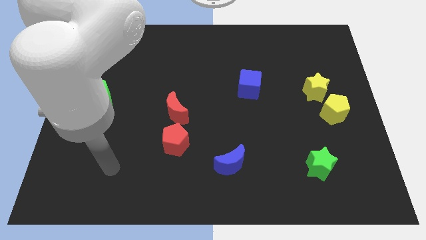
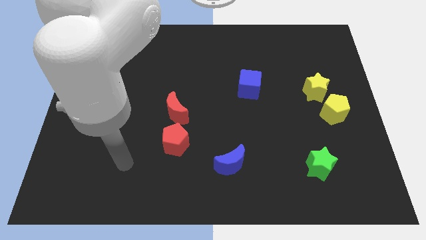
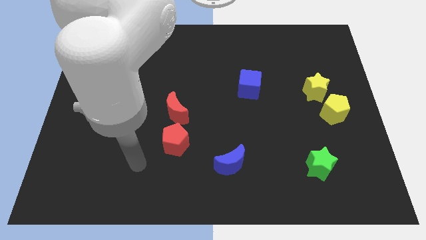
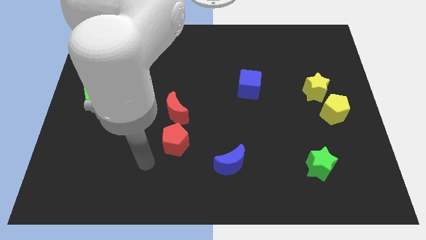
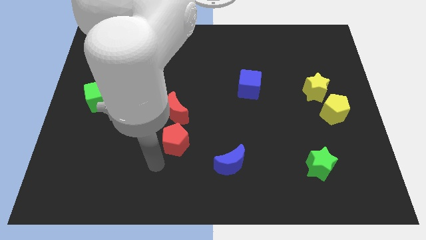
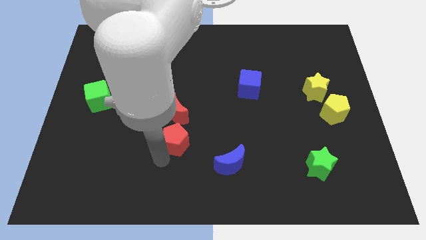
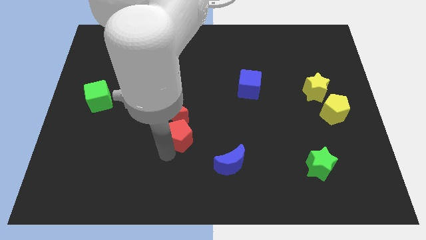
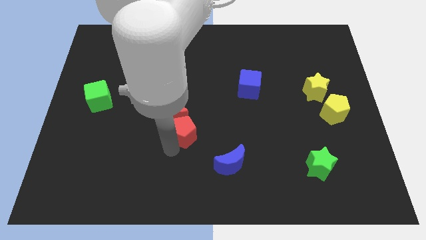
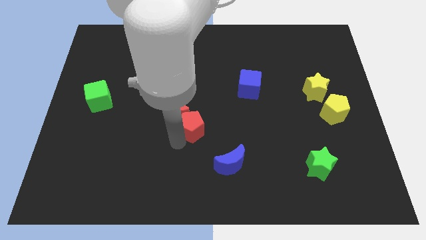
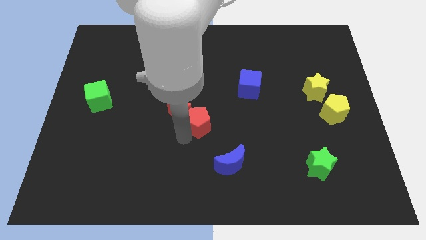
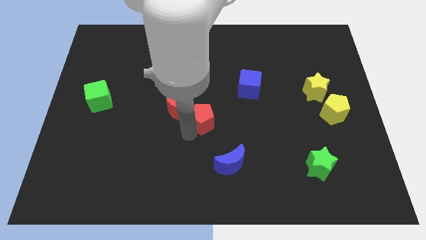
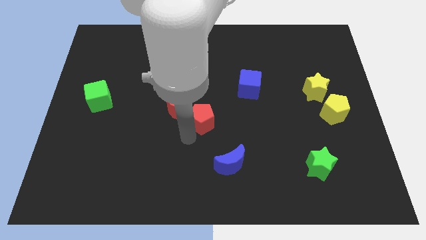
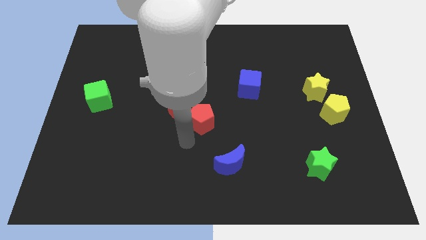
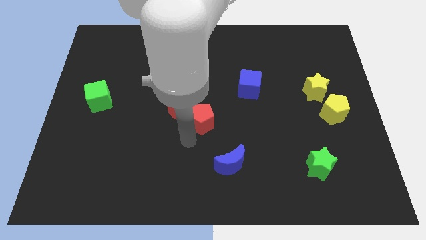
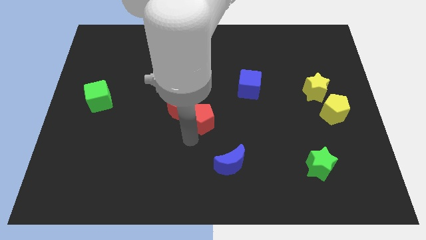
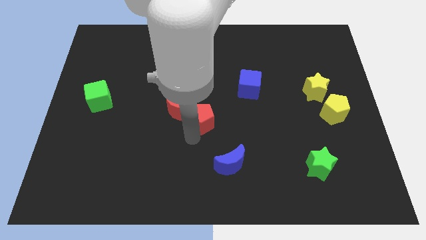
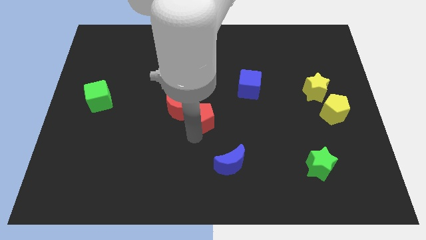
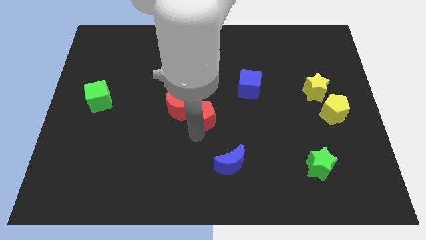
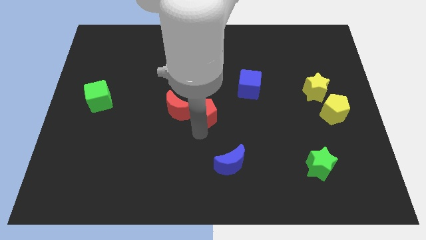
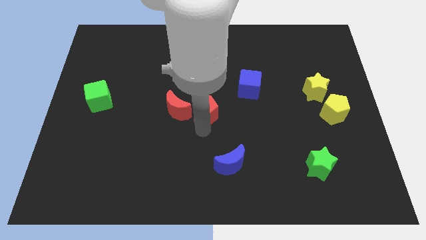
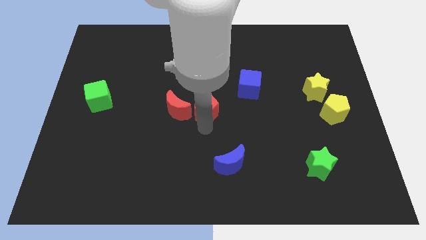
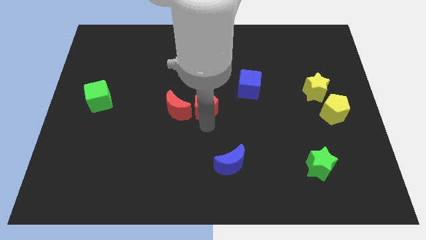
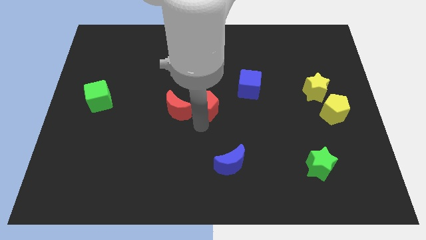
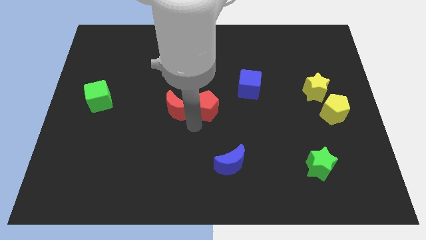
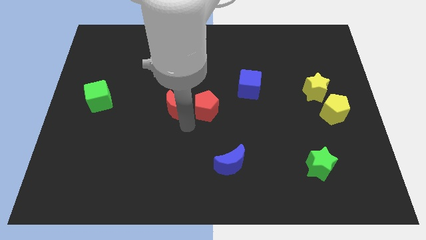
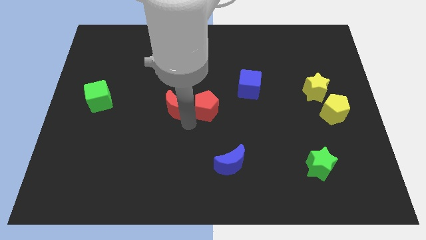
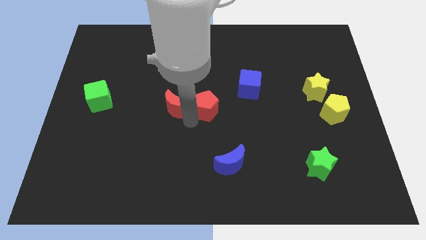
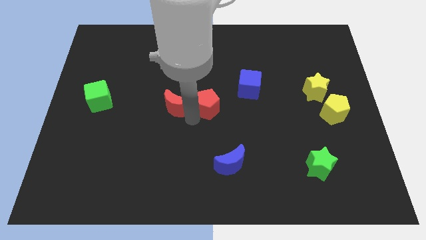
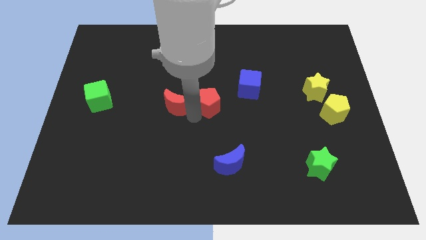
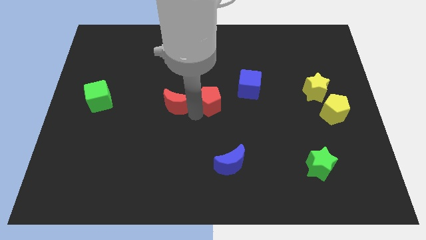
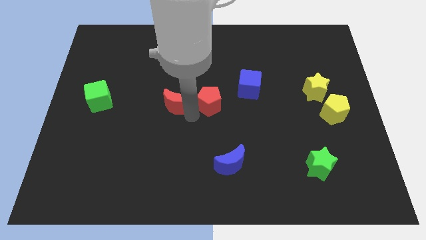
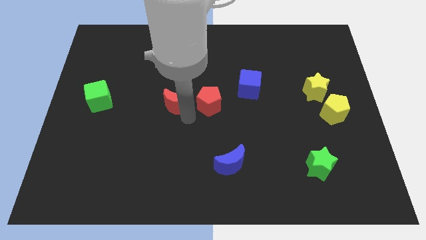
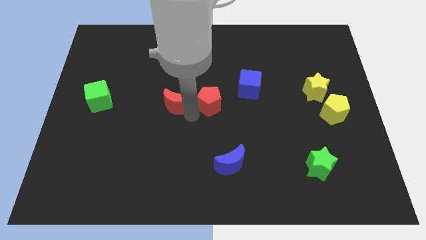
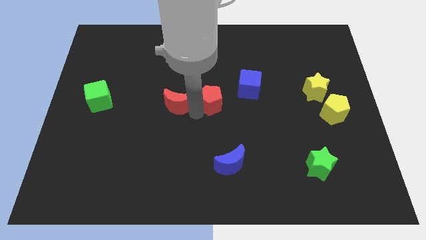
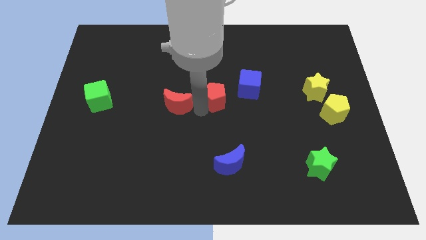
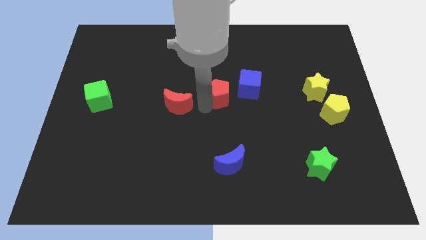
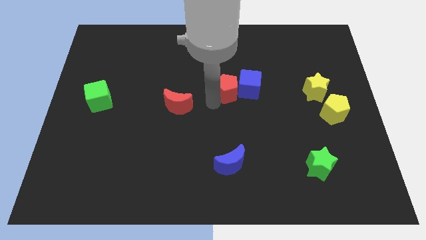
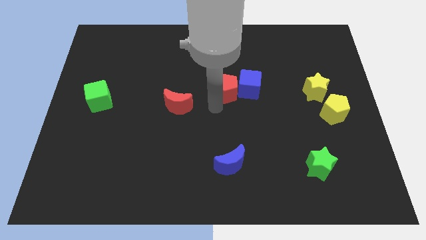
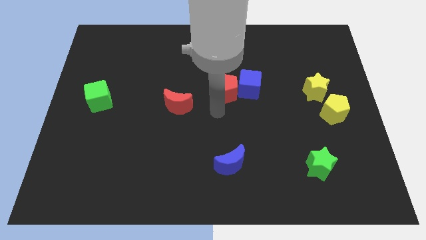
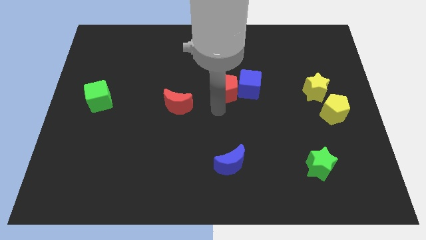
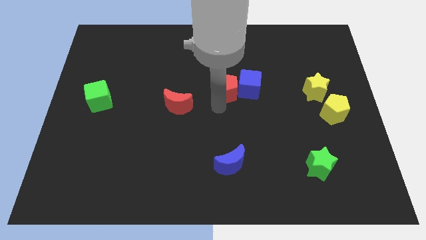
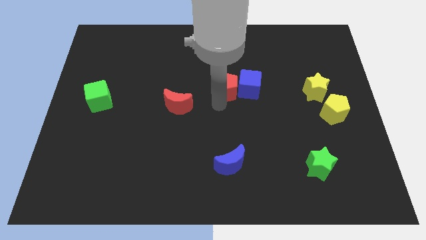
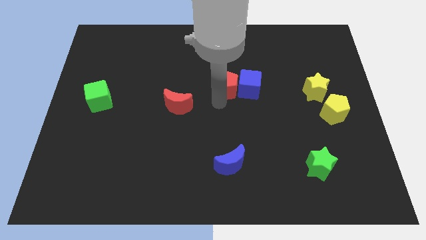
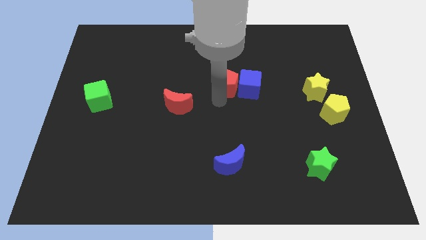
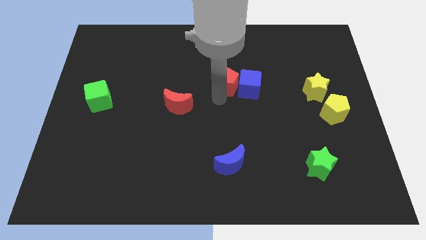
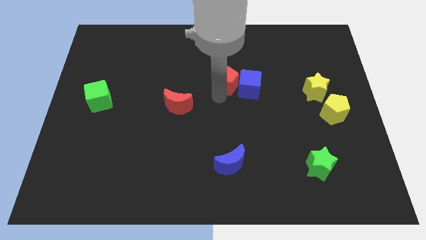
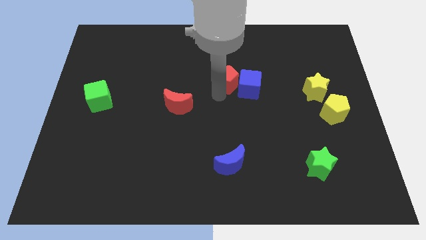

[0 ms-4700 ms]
slide the red pentagon up and right

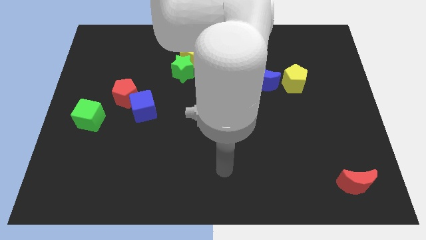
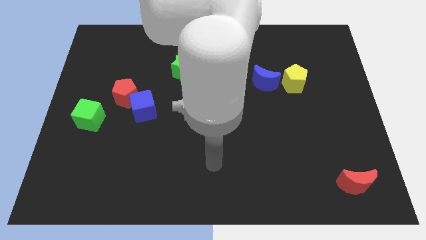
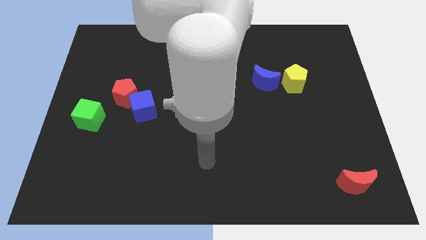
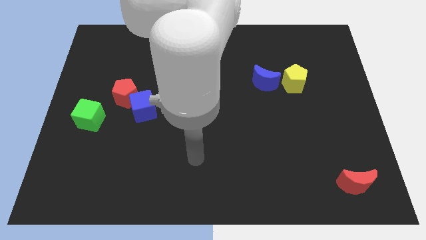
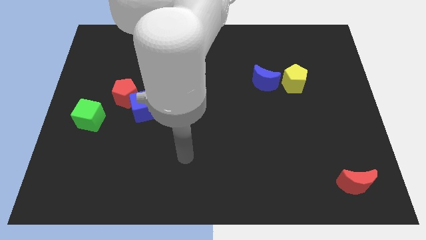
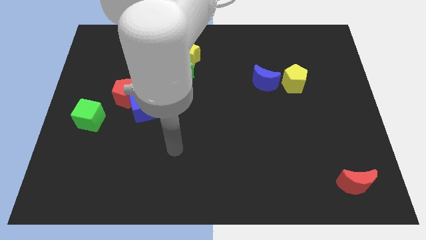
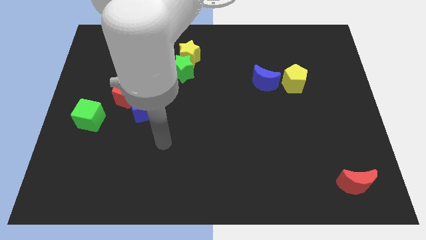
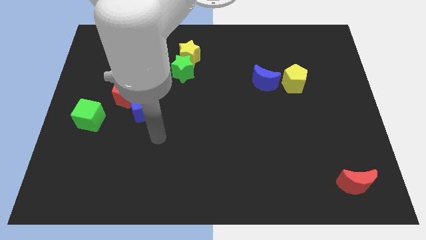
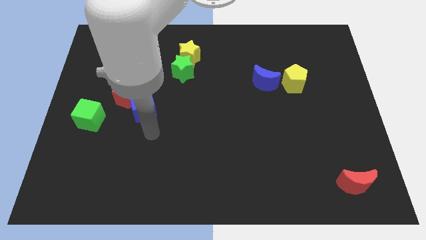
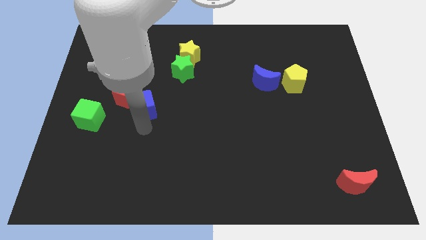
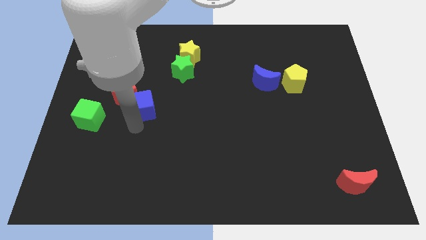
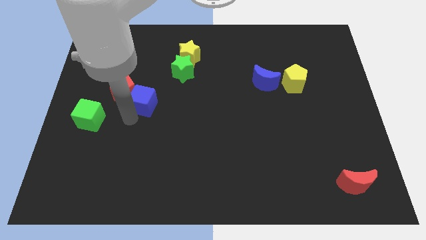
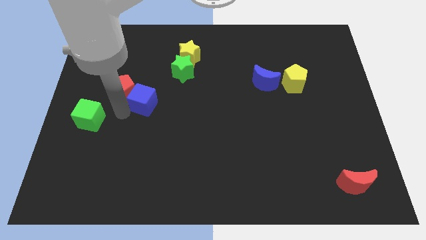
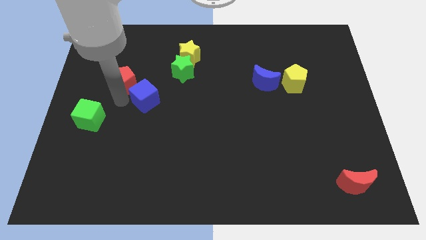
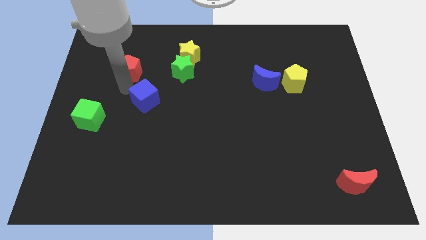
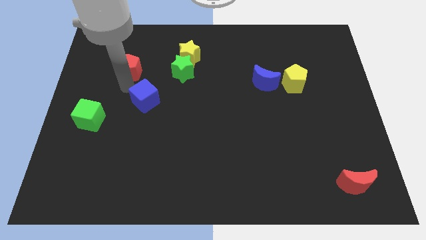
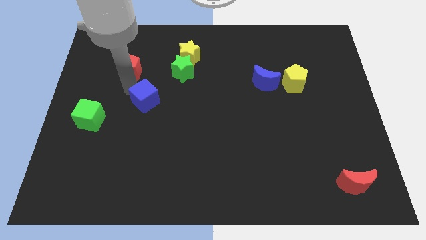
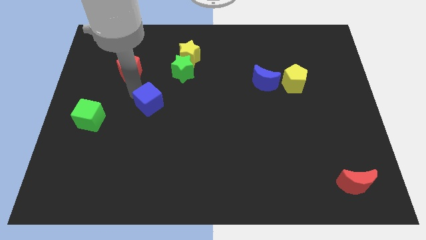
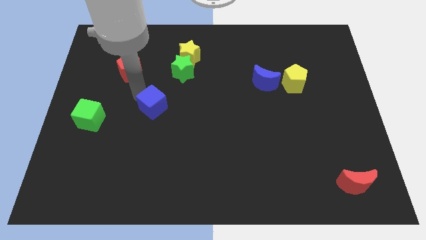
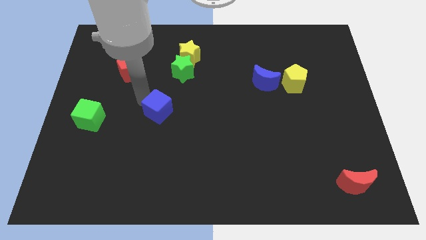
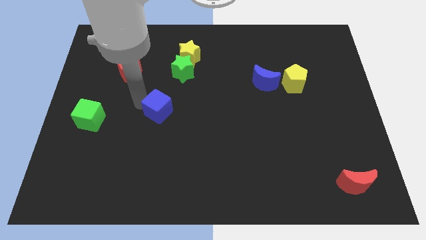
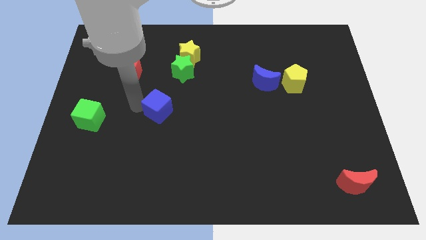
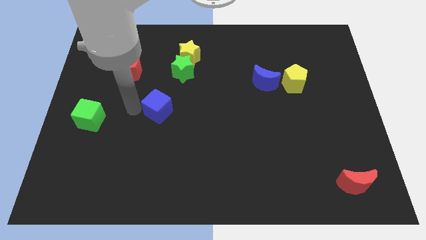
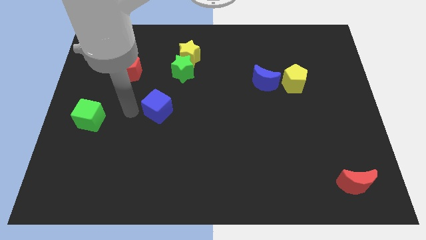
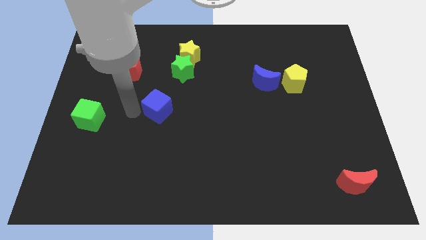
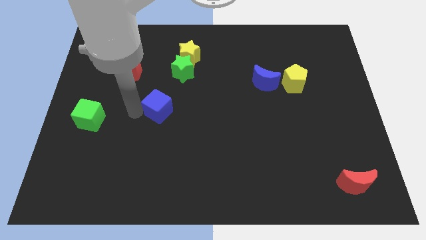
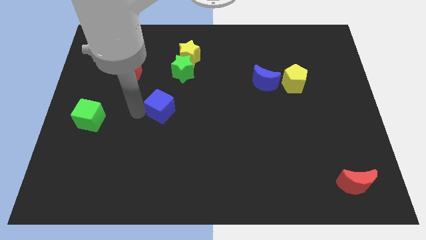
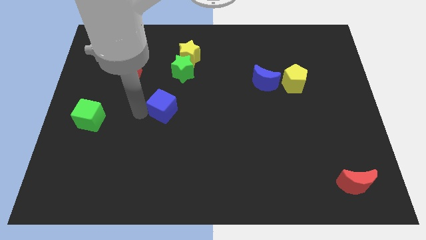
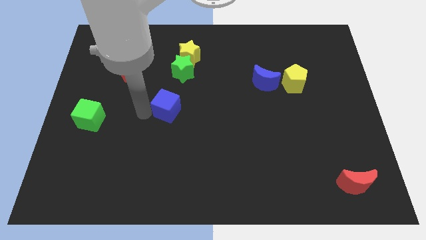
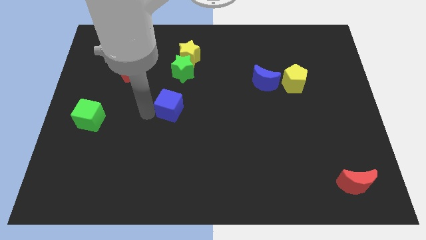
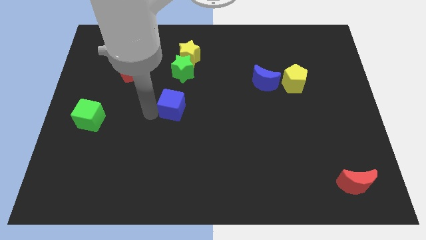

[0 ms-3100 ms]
slightly move the blue cube right

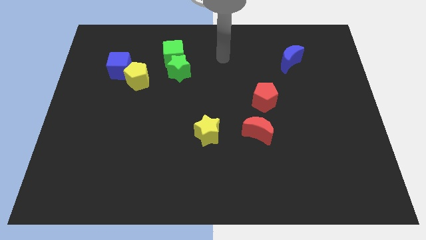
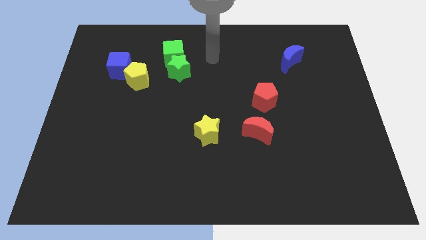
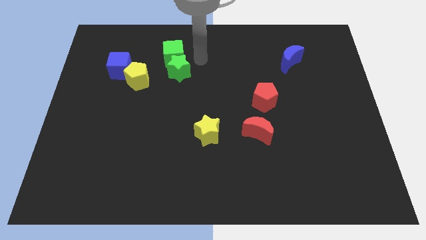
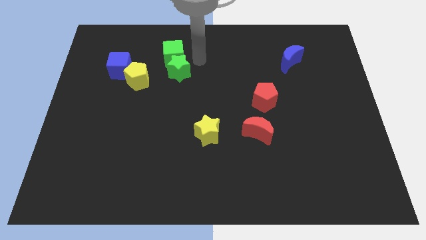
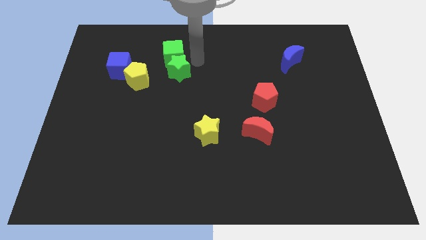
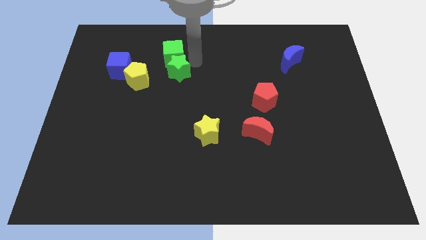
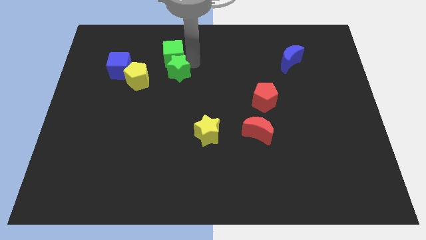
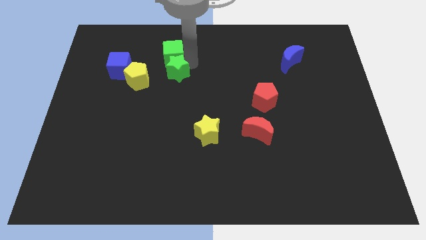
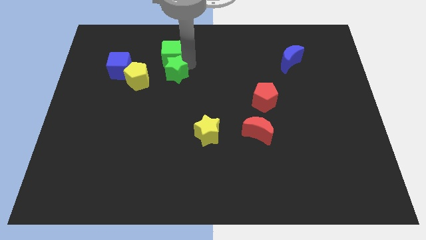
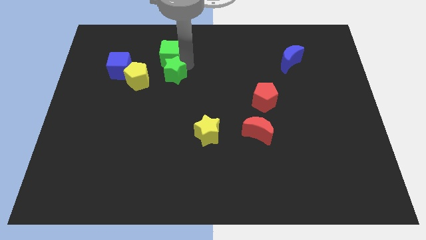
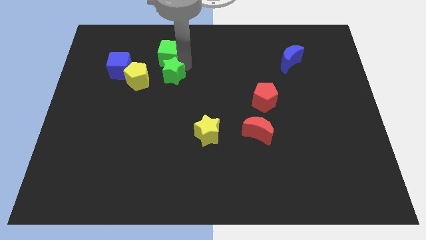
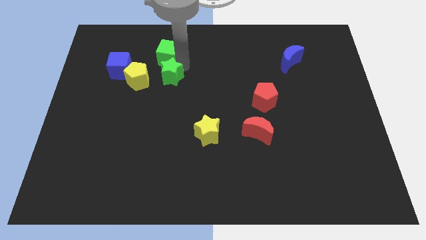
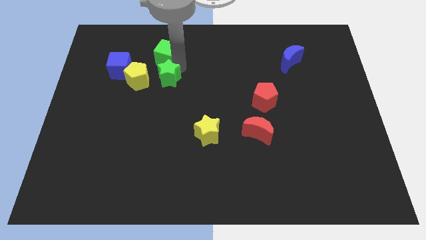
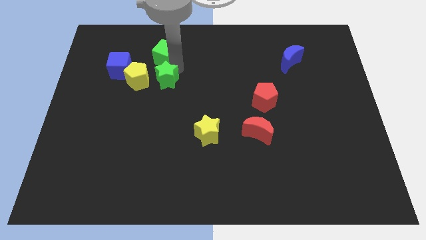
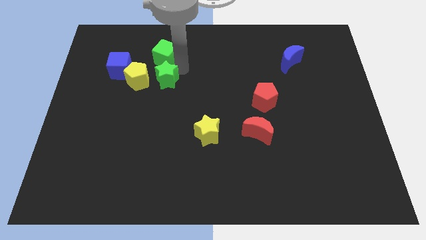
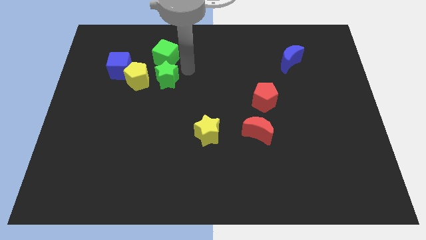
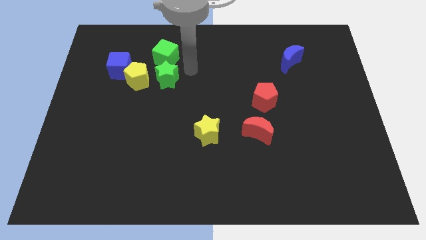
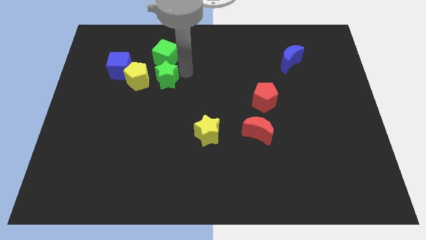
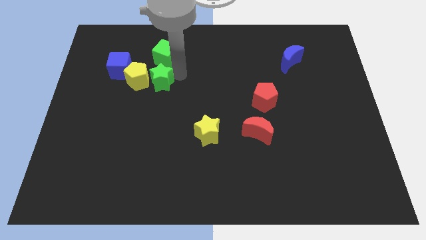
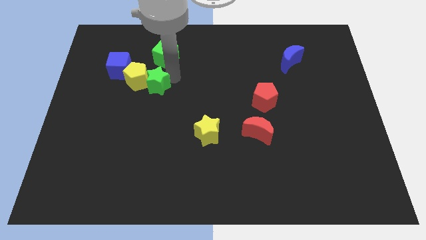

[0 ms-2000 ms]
push the green star down and left a little
